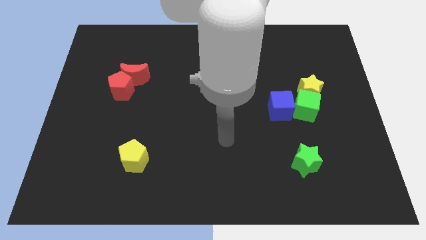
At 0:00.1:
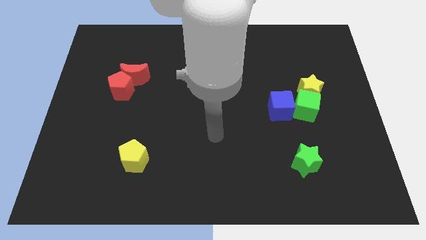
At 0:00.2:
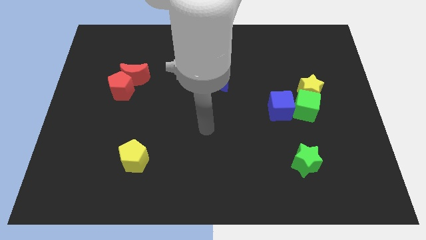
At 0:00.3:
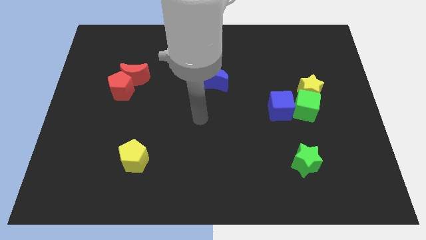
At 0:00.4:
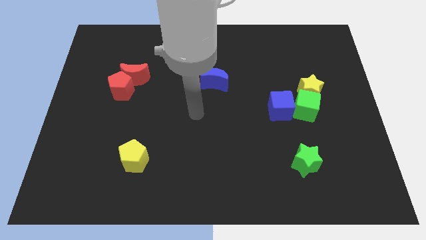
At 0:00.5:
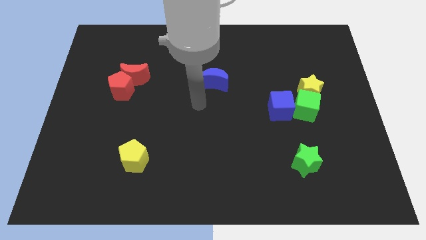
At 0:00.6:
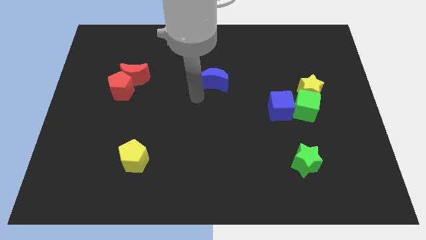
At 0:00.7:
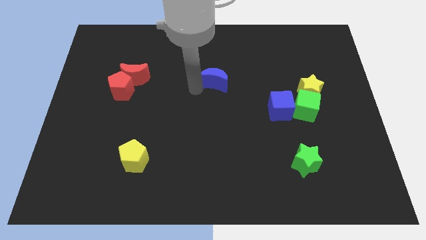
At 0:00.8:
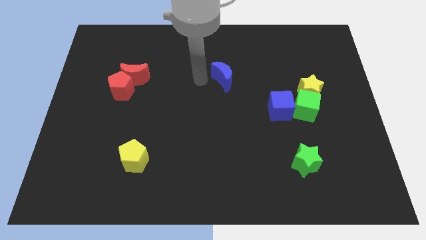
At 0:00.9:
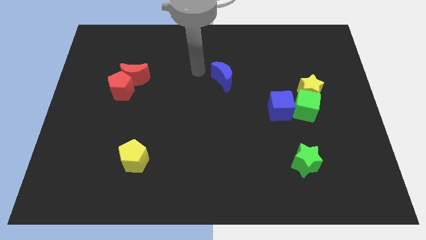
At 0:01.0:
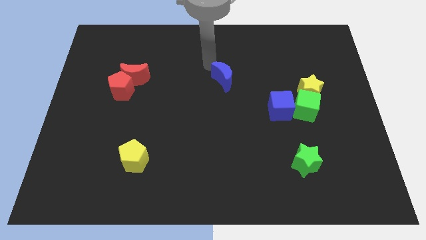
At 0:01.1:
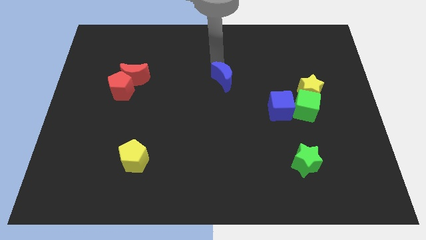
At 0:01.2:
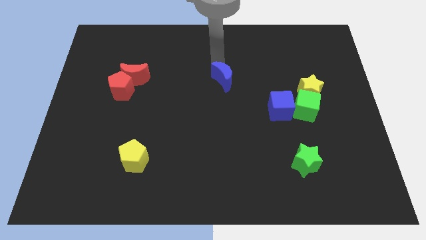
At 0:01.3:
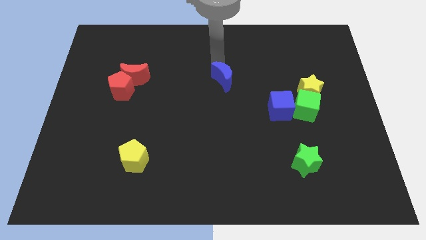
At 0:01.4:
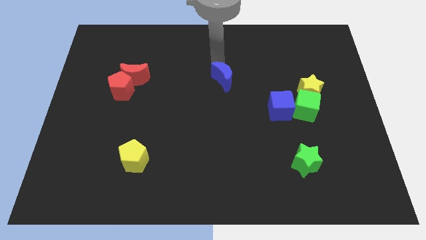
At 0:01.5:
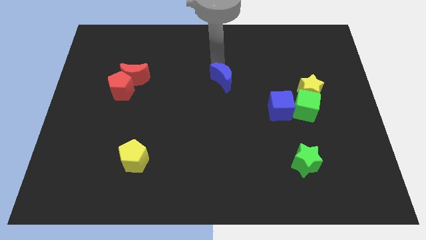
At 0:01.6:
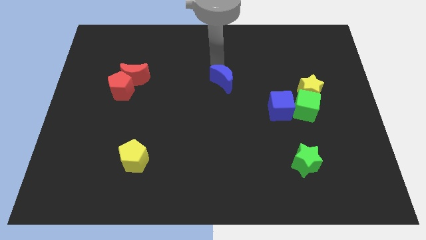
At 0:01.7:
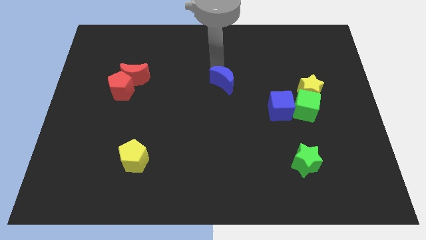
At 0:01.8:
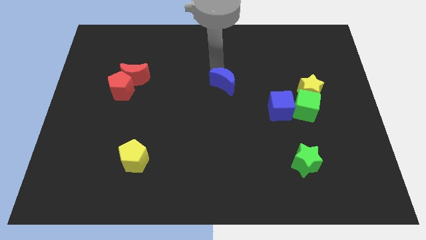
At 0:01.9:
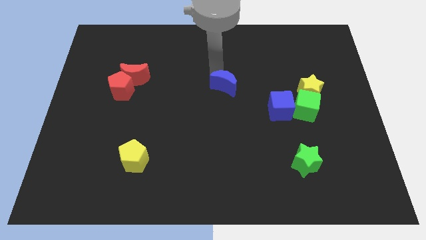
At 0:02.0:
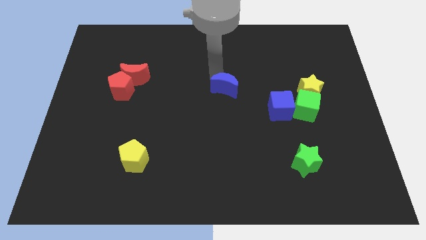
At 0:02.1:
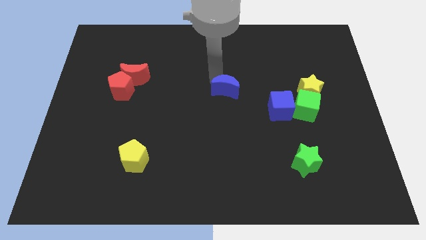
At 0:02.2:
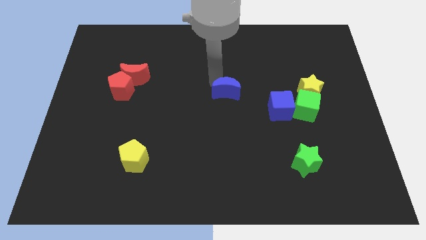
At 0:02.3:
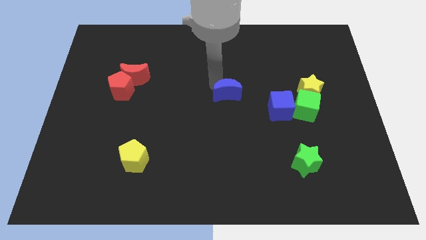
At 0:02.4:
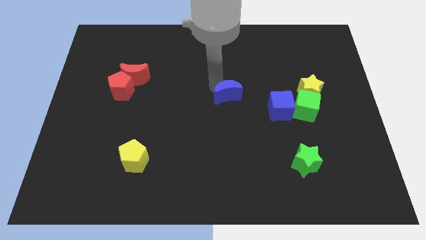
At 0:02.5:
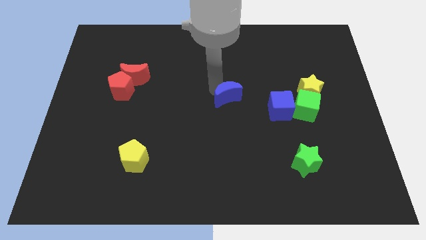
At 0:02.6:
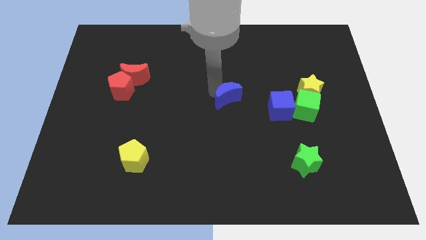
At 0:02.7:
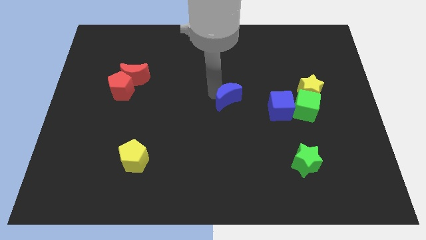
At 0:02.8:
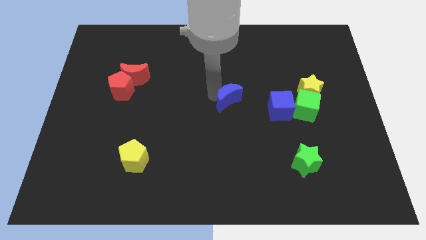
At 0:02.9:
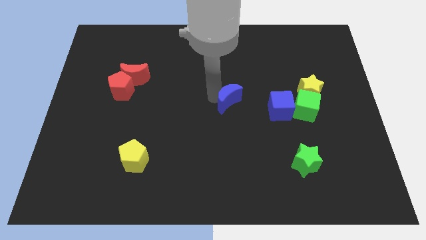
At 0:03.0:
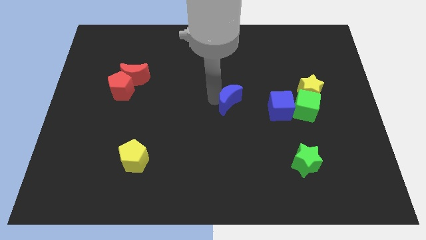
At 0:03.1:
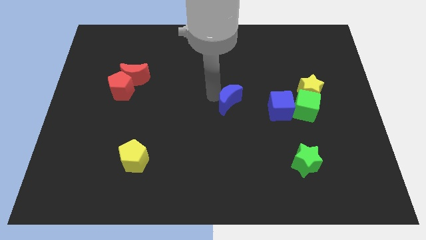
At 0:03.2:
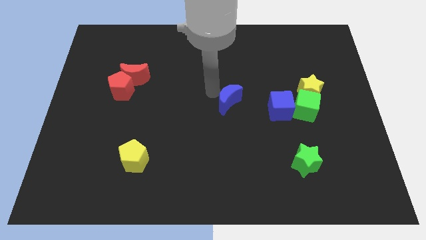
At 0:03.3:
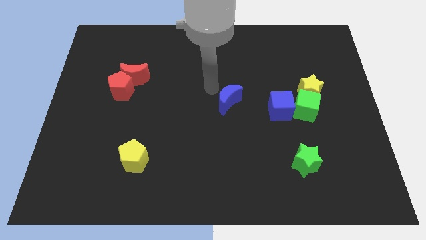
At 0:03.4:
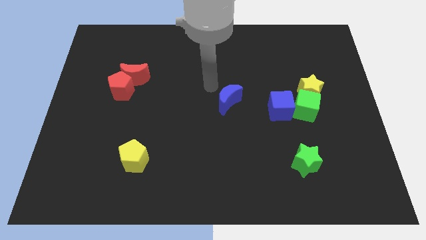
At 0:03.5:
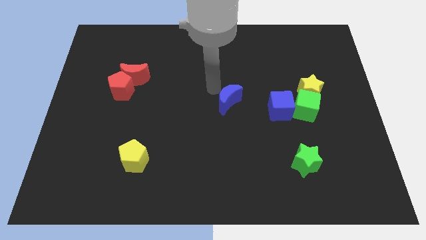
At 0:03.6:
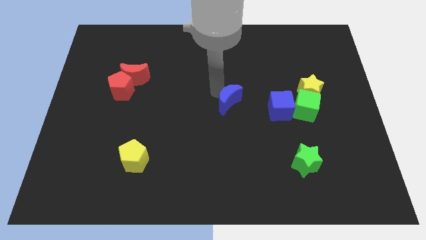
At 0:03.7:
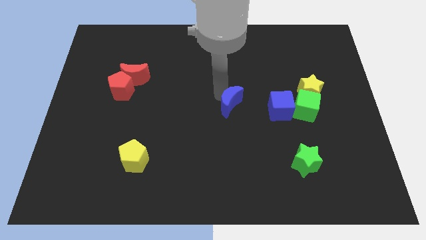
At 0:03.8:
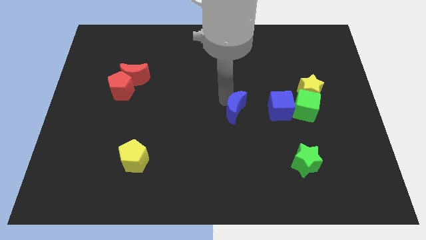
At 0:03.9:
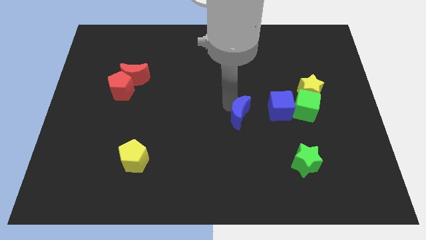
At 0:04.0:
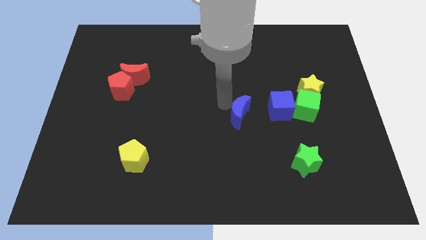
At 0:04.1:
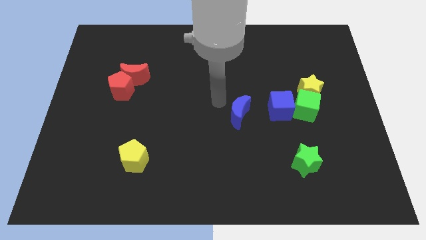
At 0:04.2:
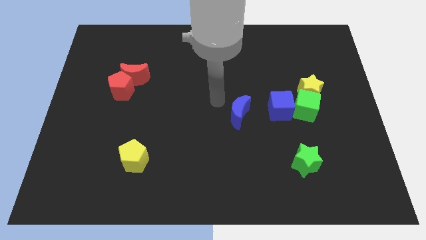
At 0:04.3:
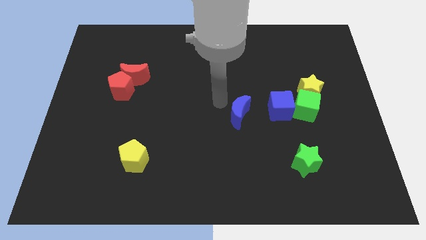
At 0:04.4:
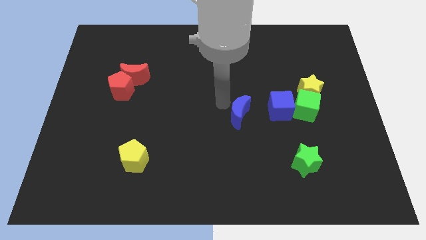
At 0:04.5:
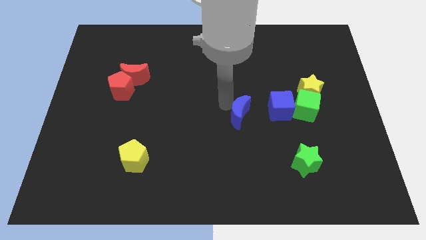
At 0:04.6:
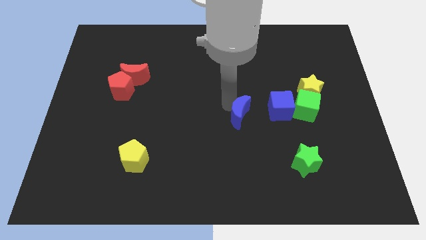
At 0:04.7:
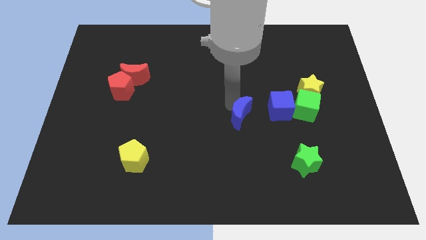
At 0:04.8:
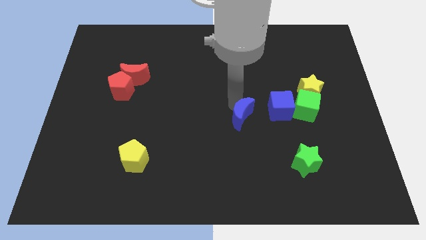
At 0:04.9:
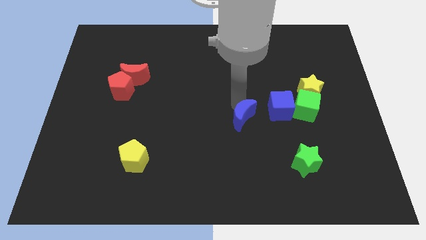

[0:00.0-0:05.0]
slide the blue moon to the bottom left side of the blue cube

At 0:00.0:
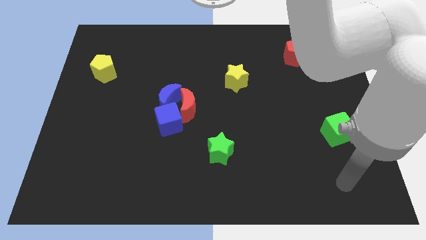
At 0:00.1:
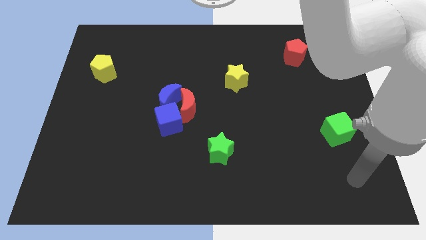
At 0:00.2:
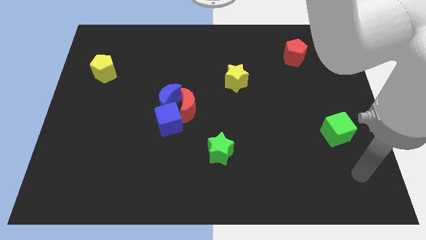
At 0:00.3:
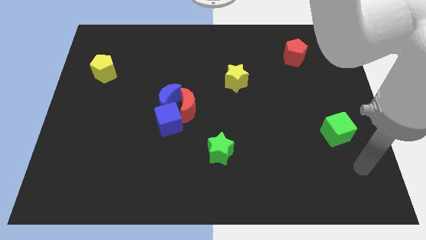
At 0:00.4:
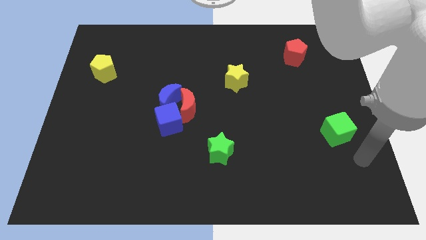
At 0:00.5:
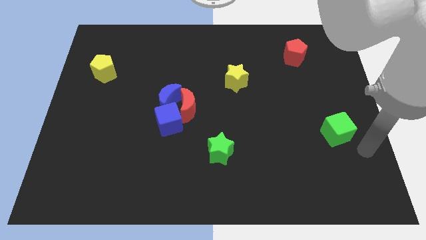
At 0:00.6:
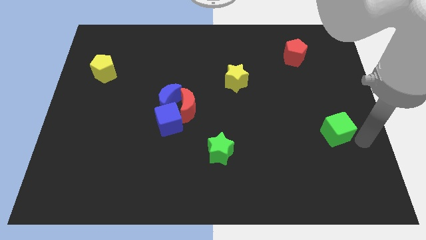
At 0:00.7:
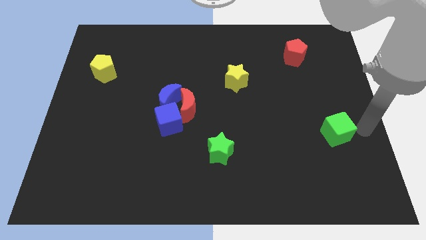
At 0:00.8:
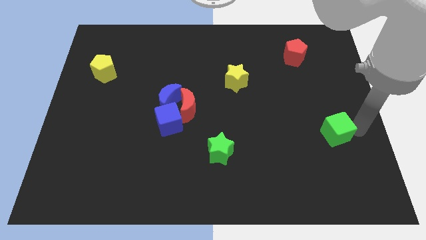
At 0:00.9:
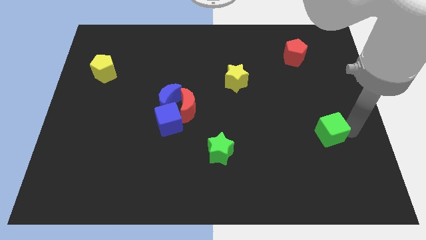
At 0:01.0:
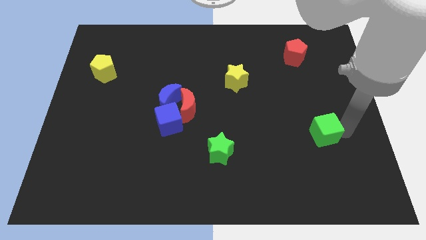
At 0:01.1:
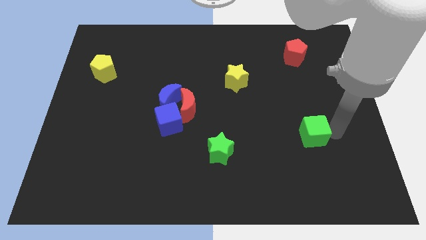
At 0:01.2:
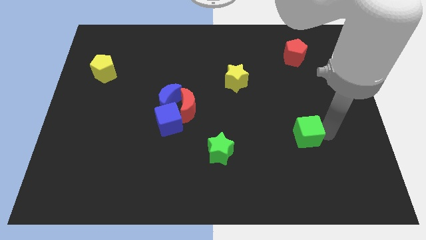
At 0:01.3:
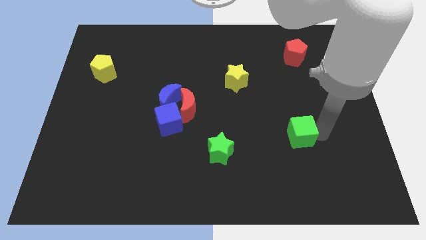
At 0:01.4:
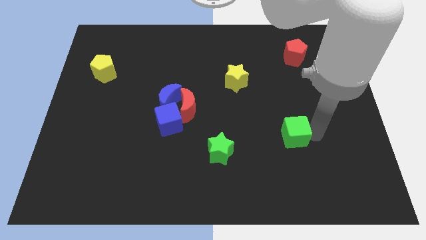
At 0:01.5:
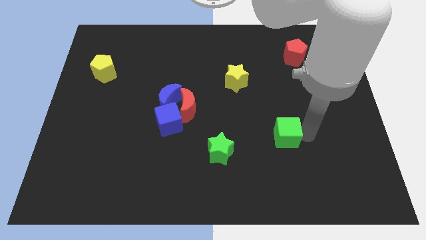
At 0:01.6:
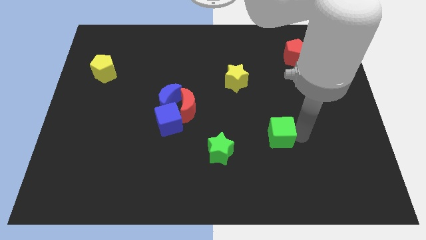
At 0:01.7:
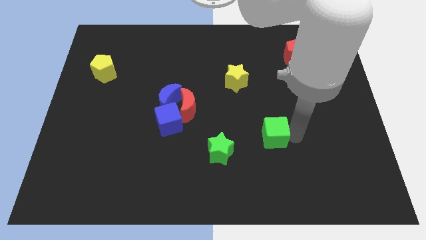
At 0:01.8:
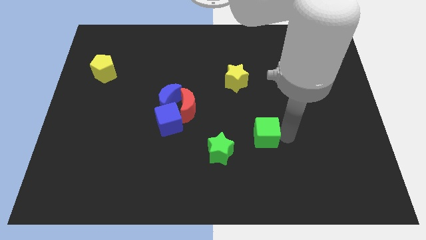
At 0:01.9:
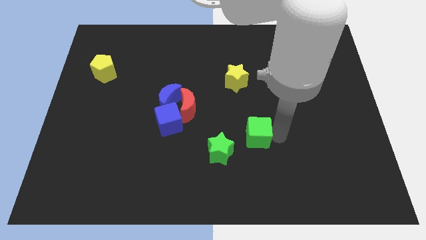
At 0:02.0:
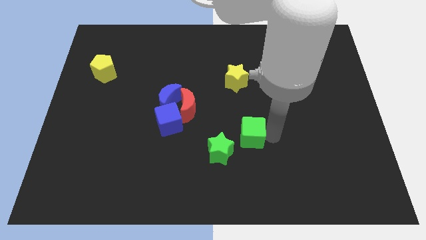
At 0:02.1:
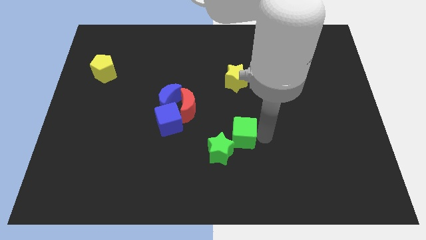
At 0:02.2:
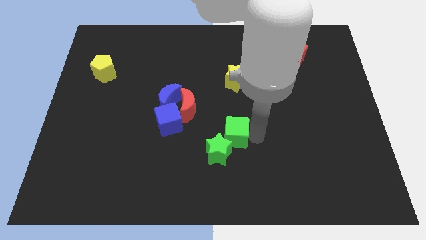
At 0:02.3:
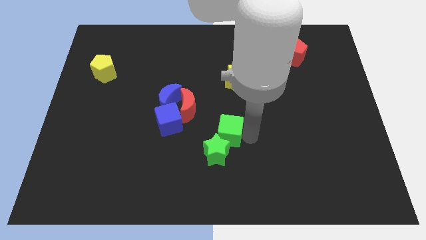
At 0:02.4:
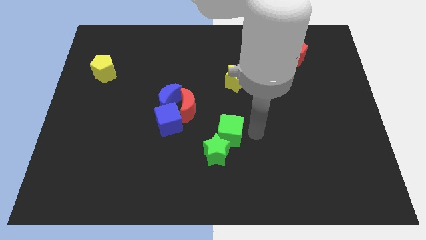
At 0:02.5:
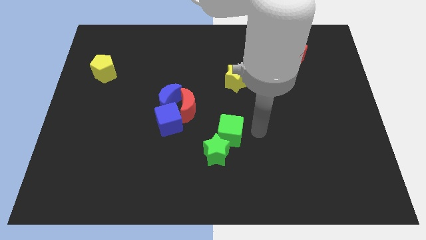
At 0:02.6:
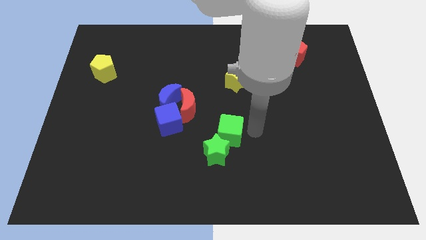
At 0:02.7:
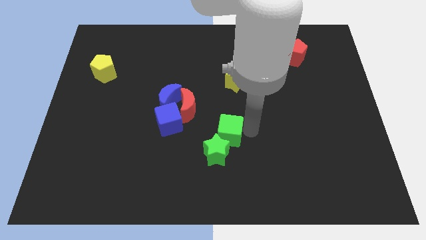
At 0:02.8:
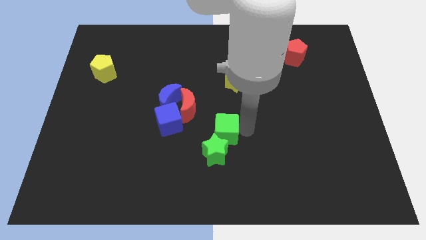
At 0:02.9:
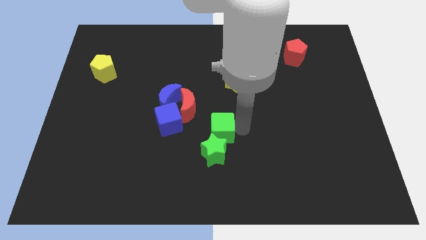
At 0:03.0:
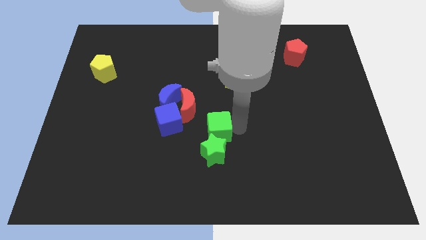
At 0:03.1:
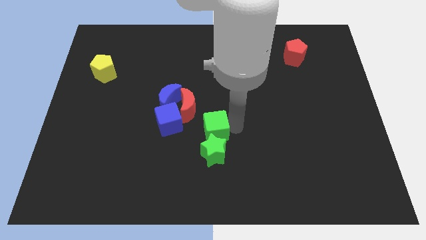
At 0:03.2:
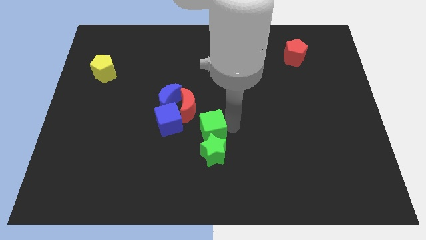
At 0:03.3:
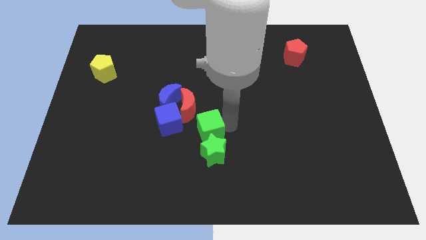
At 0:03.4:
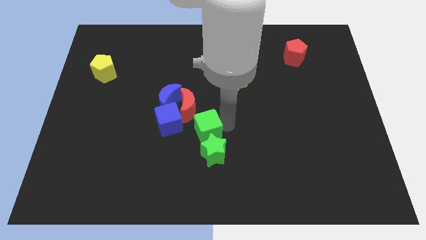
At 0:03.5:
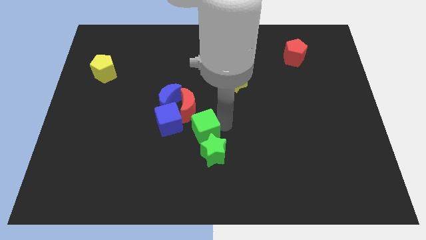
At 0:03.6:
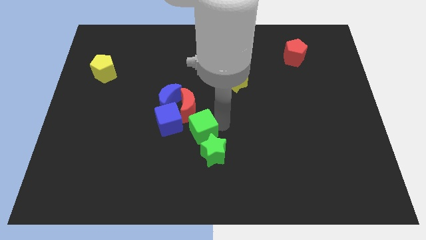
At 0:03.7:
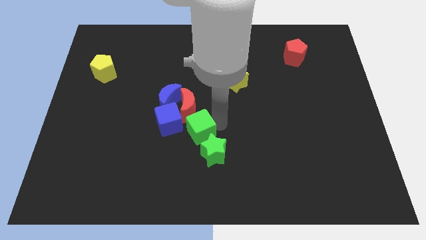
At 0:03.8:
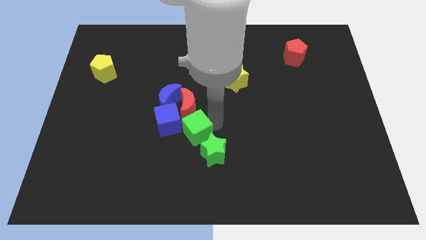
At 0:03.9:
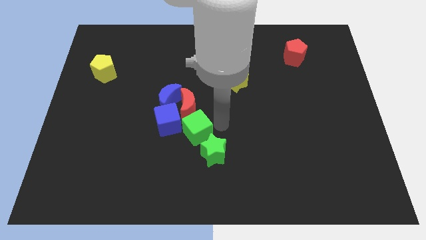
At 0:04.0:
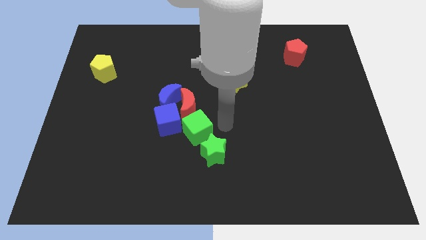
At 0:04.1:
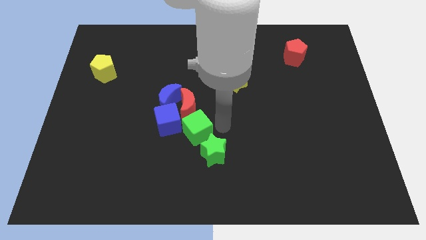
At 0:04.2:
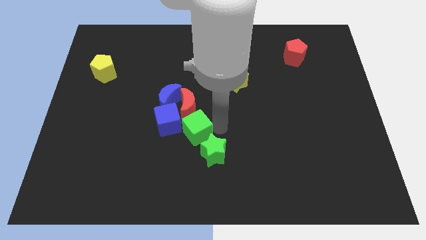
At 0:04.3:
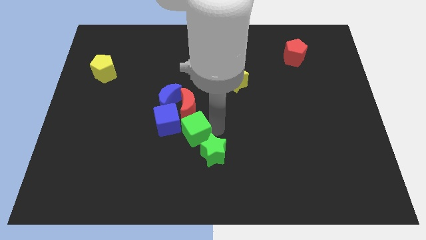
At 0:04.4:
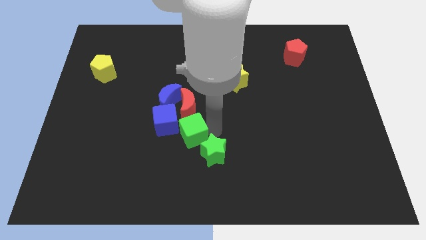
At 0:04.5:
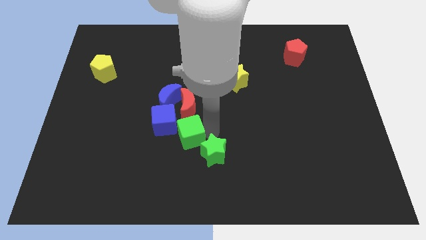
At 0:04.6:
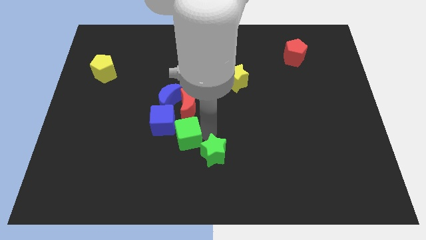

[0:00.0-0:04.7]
move the green cube below the blue moon
